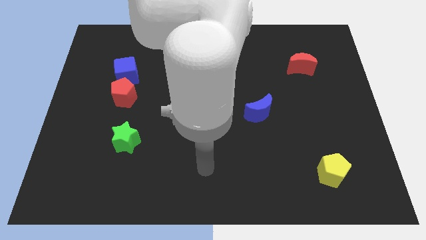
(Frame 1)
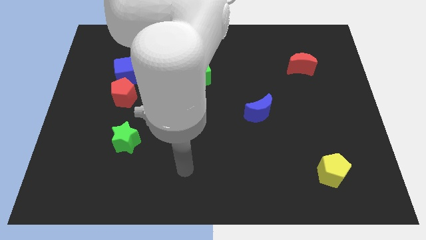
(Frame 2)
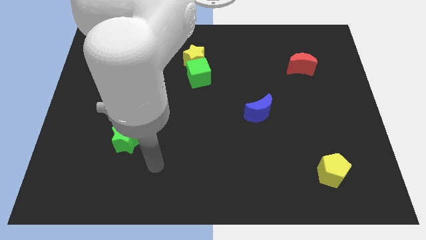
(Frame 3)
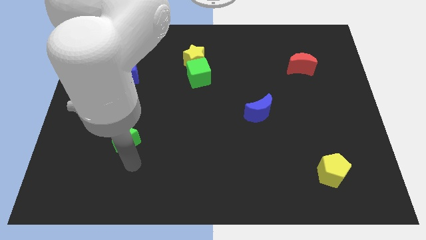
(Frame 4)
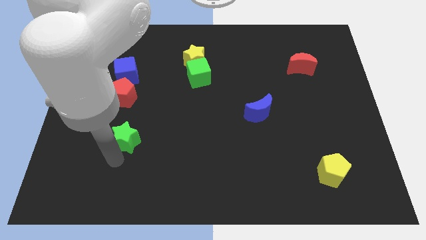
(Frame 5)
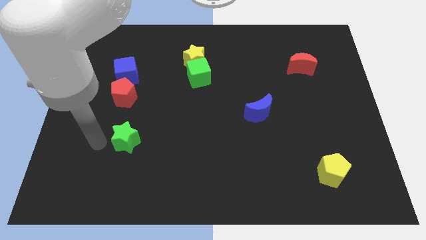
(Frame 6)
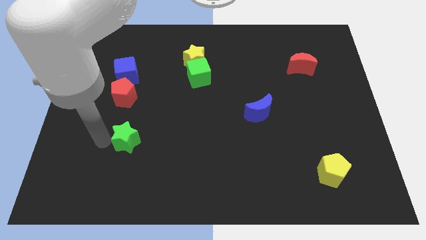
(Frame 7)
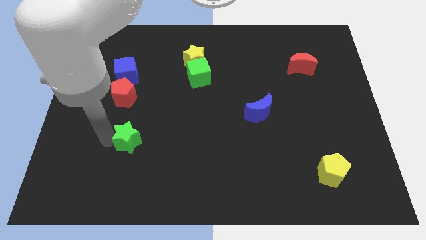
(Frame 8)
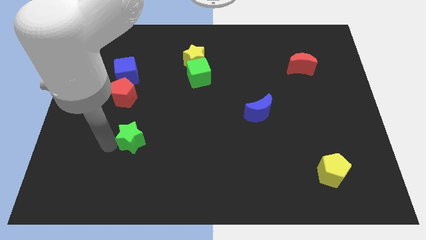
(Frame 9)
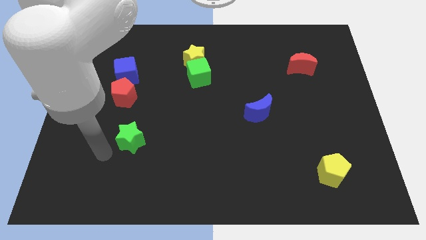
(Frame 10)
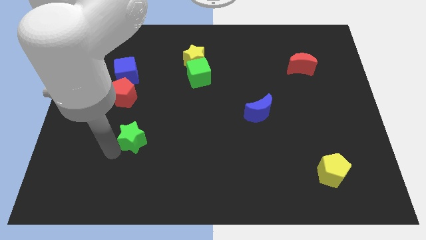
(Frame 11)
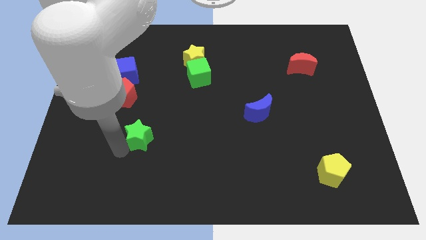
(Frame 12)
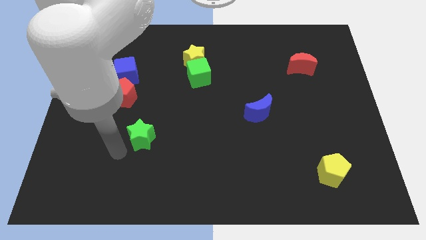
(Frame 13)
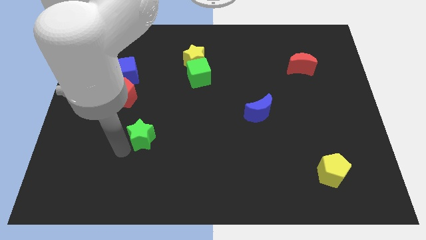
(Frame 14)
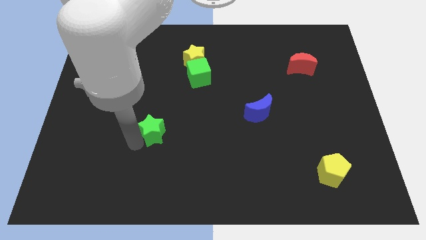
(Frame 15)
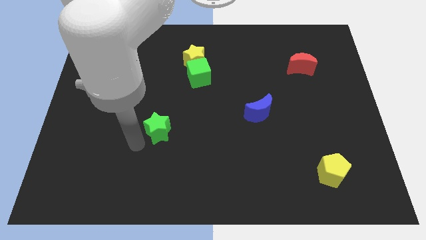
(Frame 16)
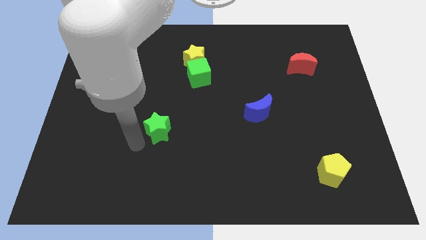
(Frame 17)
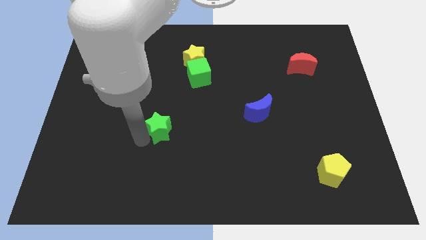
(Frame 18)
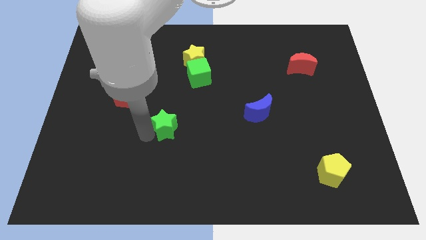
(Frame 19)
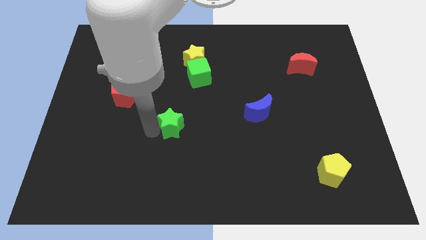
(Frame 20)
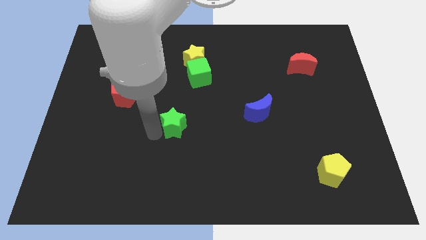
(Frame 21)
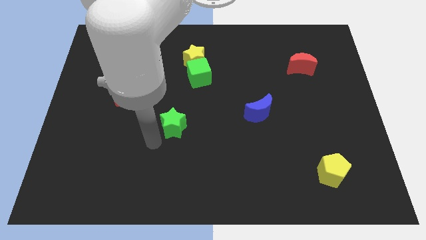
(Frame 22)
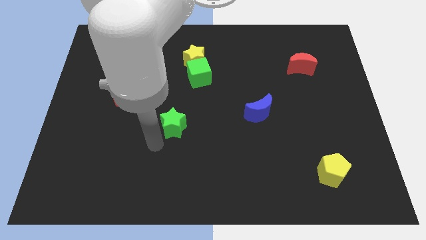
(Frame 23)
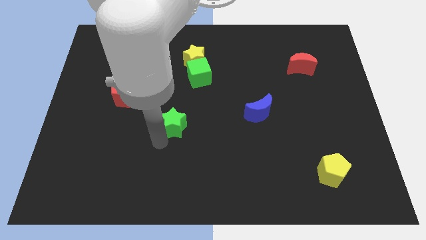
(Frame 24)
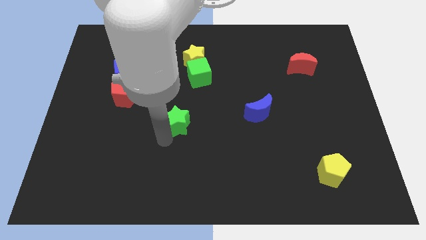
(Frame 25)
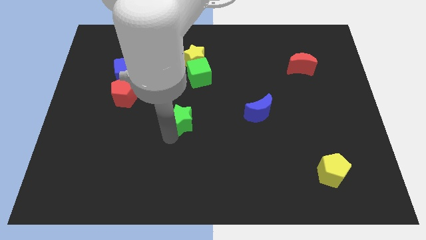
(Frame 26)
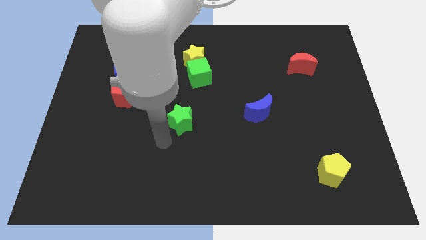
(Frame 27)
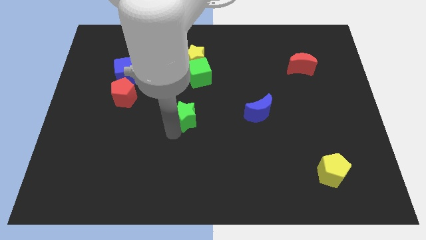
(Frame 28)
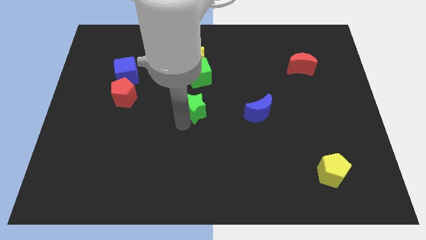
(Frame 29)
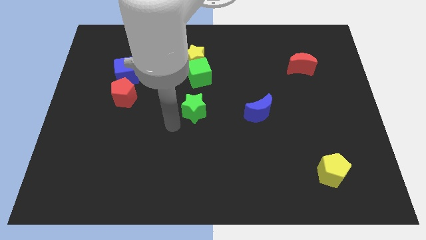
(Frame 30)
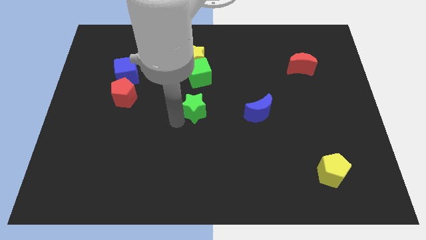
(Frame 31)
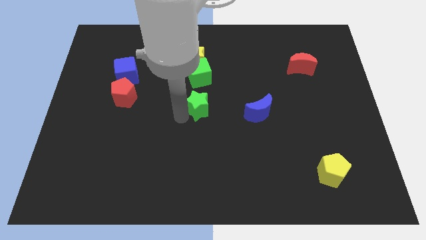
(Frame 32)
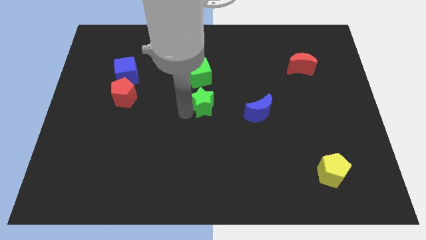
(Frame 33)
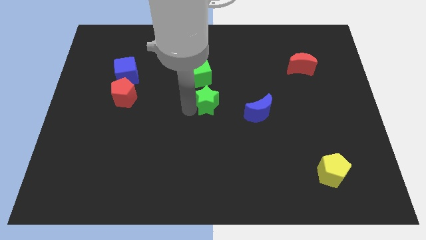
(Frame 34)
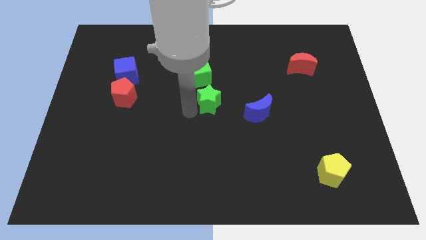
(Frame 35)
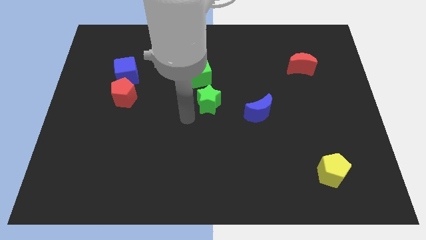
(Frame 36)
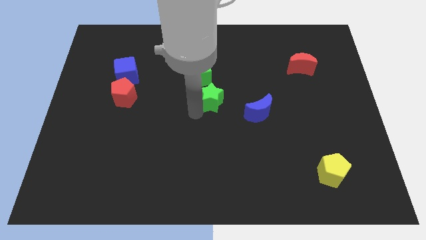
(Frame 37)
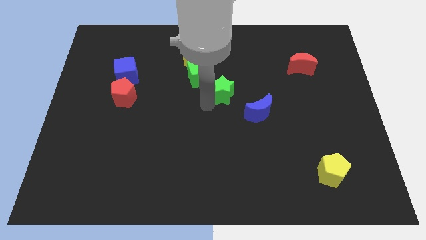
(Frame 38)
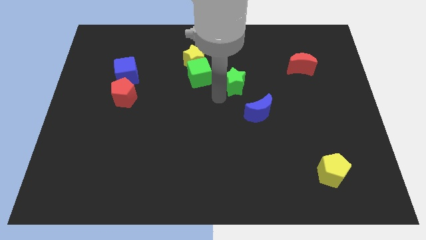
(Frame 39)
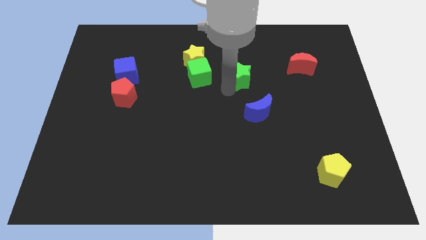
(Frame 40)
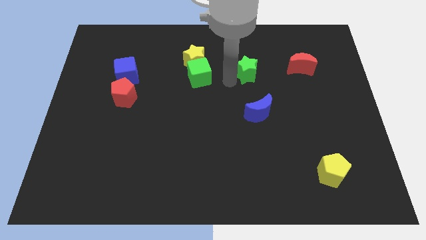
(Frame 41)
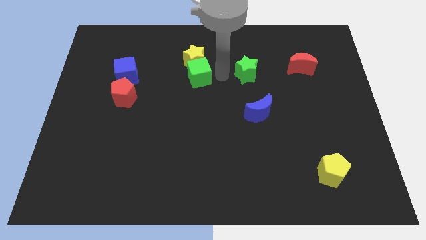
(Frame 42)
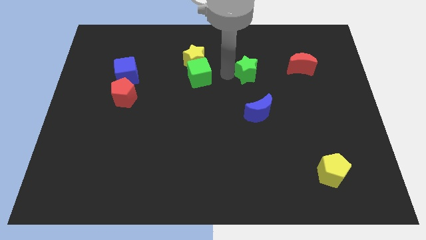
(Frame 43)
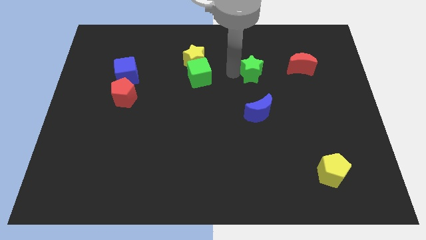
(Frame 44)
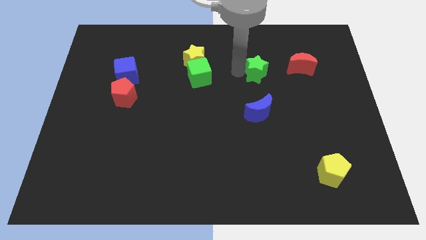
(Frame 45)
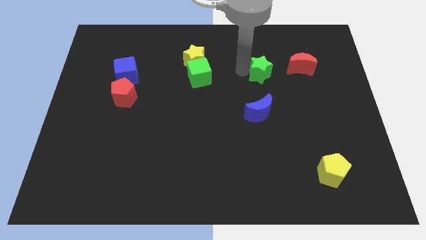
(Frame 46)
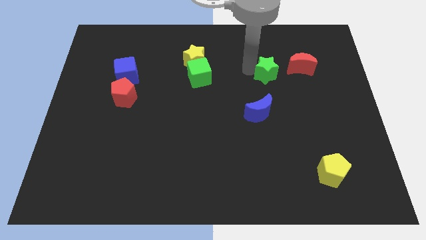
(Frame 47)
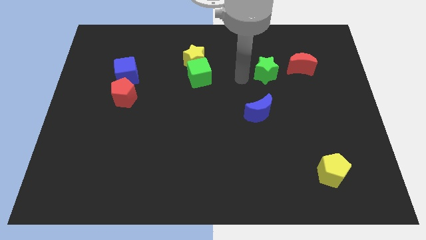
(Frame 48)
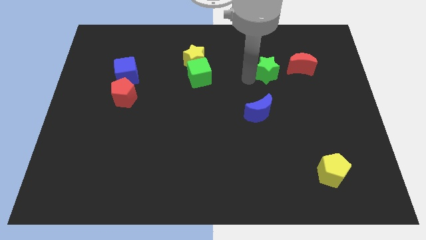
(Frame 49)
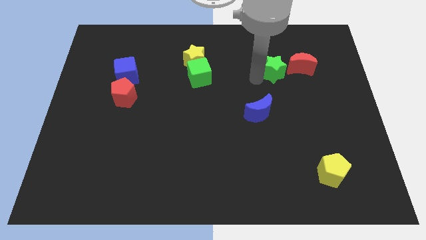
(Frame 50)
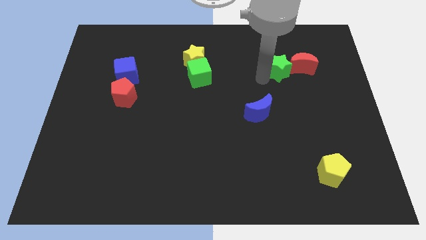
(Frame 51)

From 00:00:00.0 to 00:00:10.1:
slide the green star to the red moon

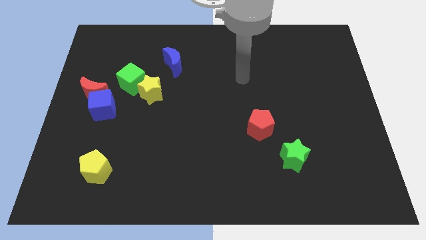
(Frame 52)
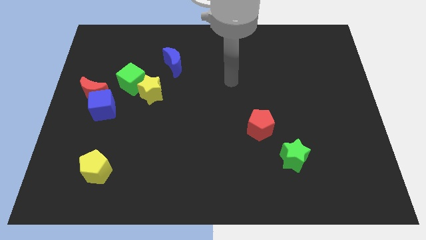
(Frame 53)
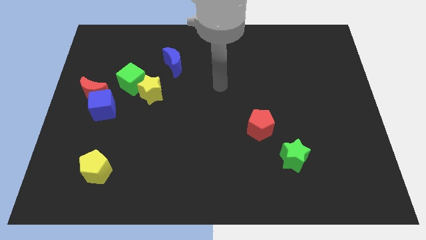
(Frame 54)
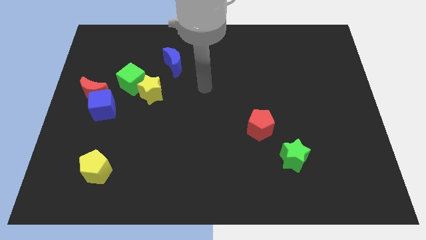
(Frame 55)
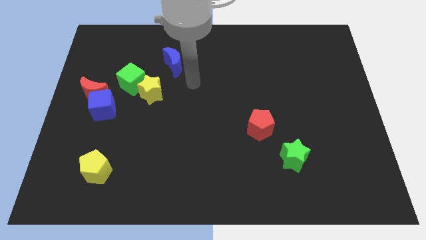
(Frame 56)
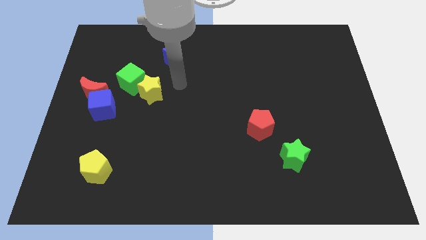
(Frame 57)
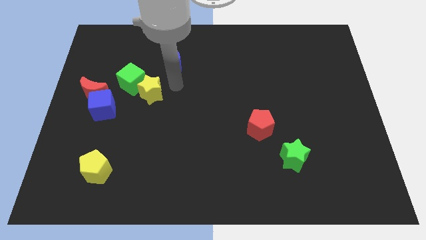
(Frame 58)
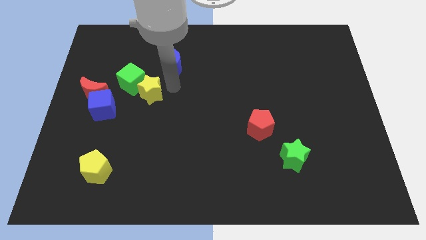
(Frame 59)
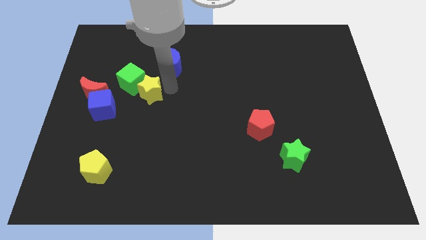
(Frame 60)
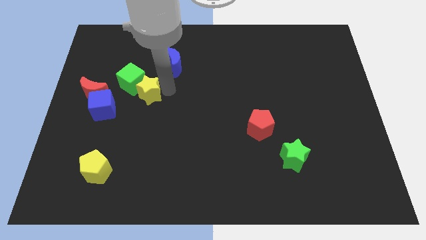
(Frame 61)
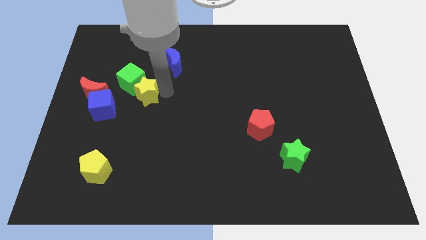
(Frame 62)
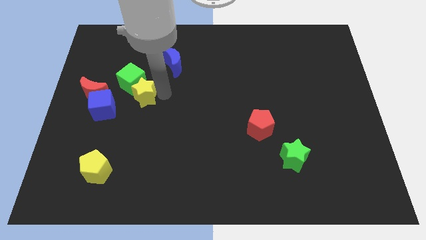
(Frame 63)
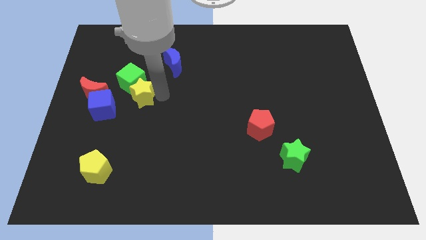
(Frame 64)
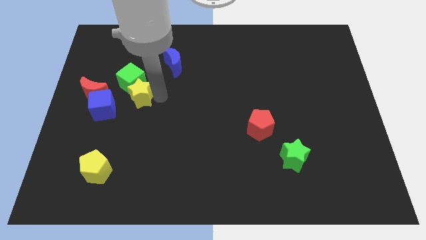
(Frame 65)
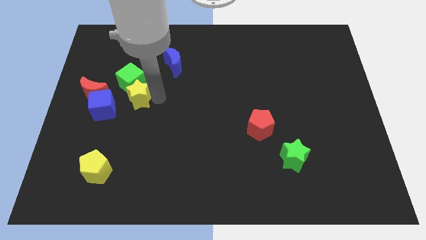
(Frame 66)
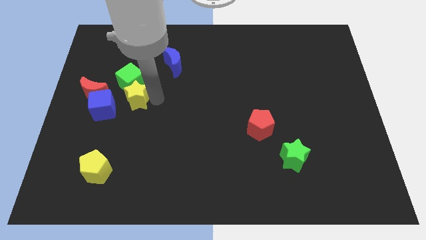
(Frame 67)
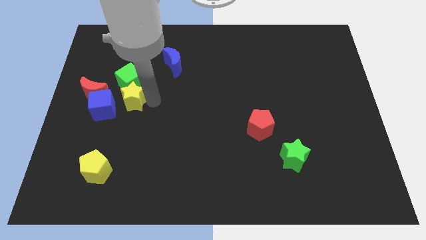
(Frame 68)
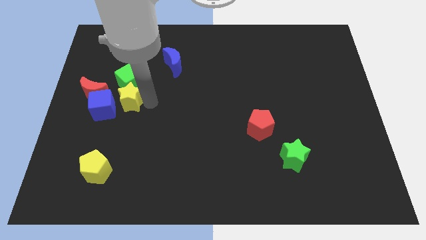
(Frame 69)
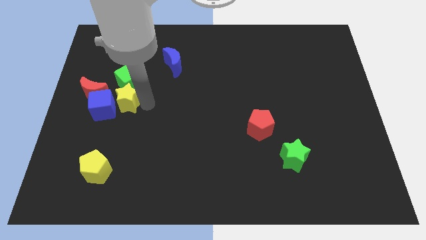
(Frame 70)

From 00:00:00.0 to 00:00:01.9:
push the yellow star towards the blue cube

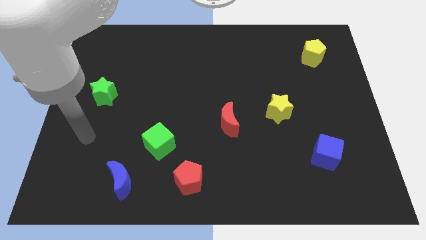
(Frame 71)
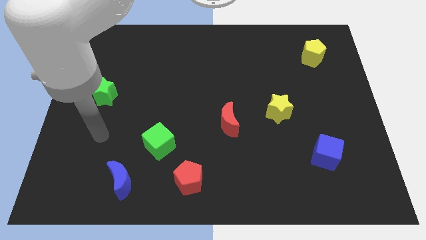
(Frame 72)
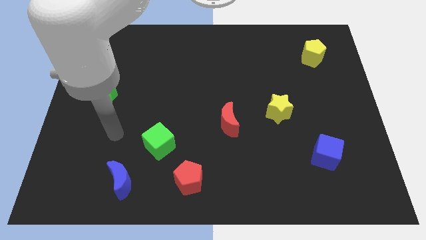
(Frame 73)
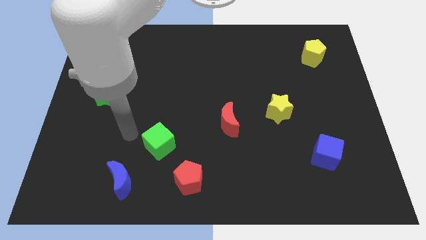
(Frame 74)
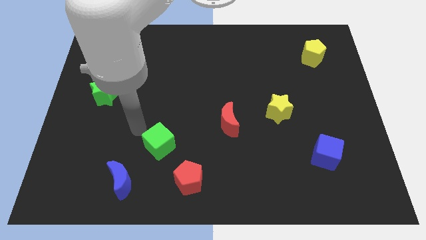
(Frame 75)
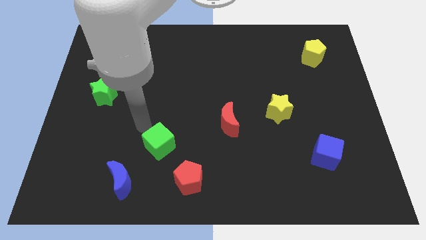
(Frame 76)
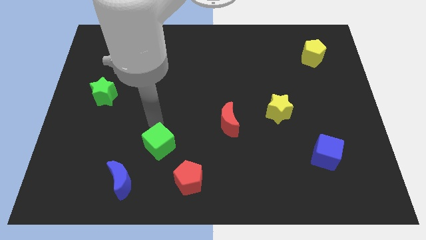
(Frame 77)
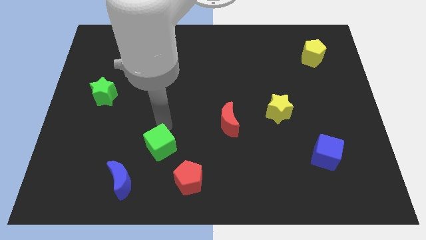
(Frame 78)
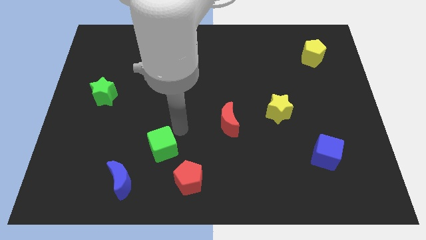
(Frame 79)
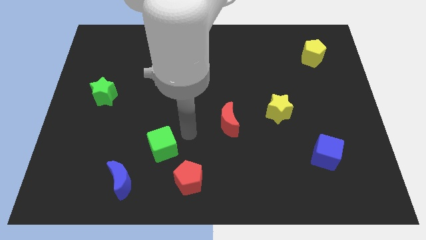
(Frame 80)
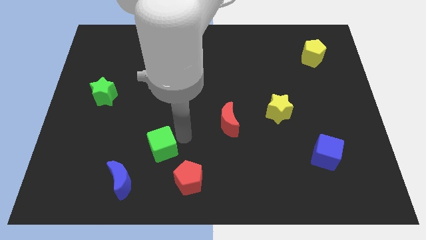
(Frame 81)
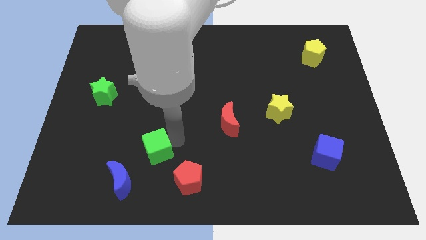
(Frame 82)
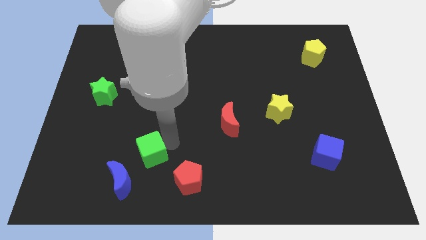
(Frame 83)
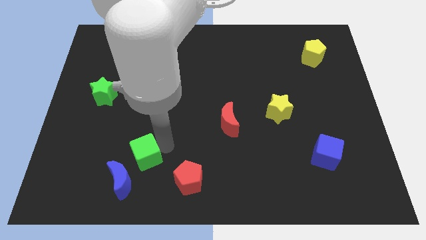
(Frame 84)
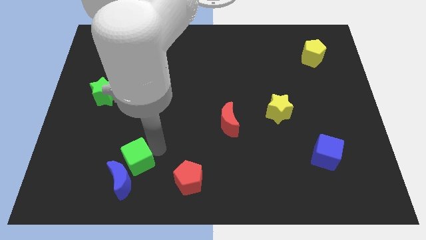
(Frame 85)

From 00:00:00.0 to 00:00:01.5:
put the green cube towards the blue moon
